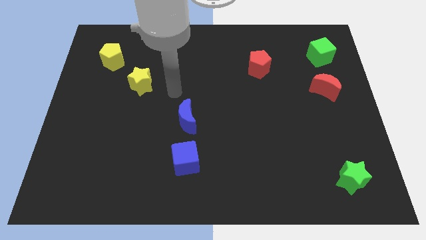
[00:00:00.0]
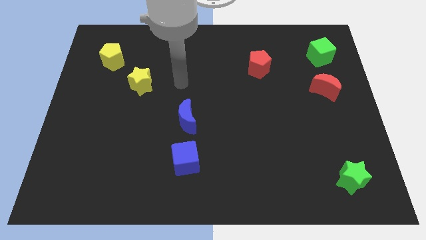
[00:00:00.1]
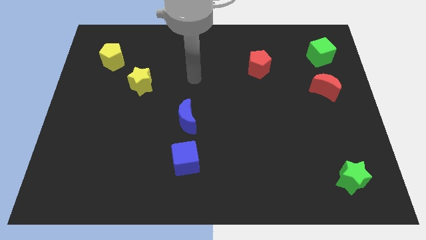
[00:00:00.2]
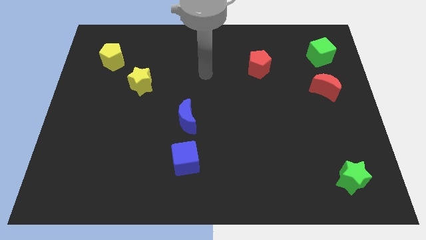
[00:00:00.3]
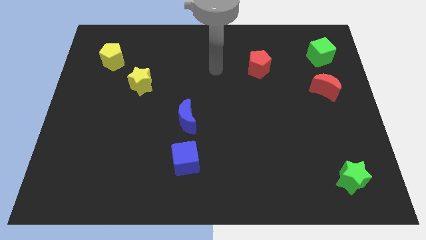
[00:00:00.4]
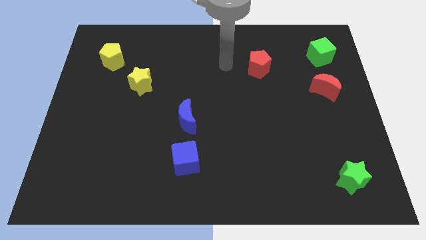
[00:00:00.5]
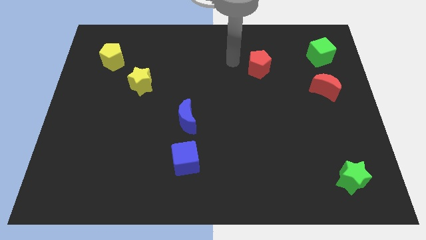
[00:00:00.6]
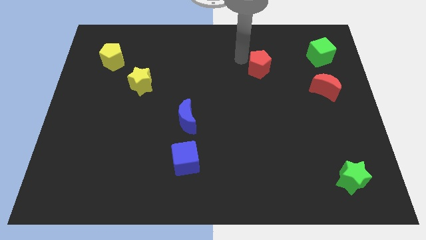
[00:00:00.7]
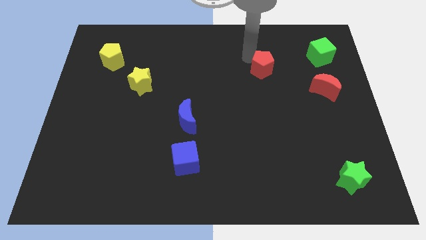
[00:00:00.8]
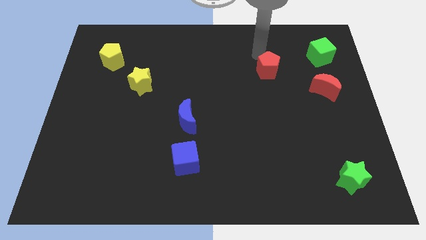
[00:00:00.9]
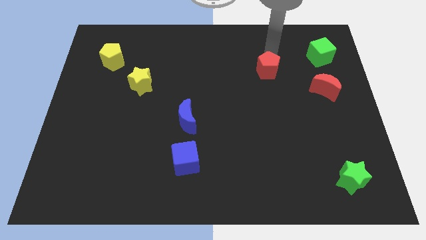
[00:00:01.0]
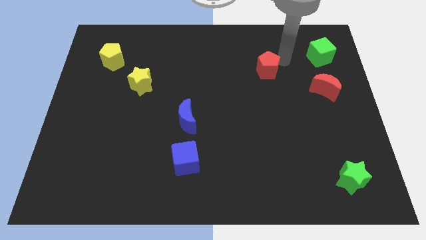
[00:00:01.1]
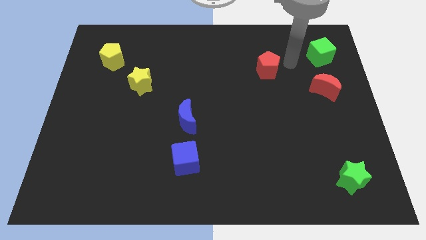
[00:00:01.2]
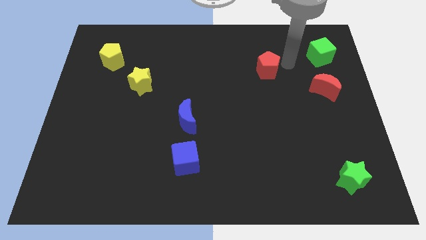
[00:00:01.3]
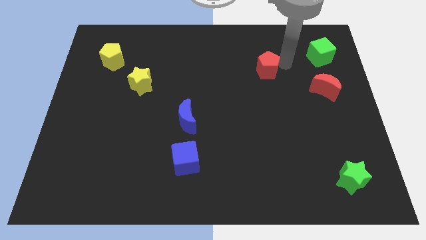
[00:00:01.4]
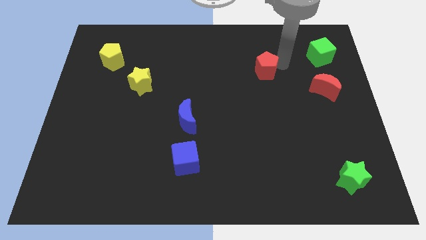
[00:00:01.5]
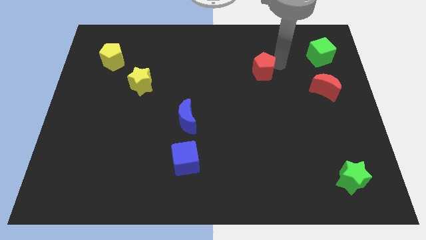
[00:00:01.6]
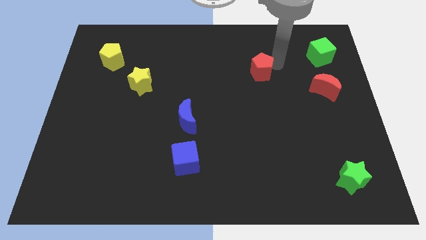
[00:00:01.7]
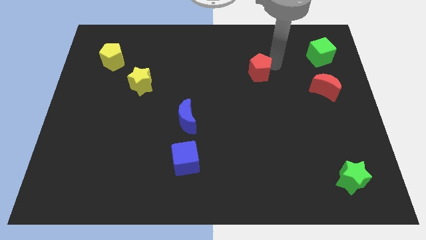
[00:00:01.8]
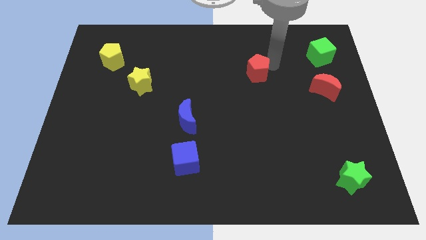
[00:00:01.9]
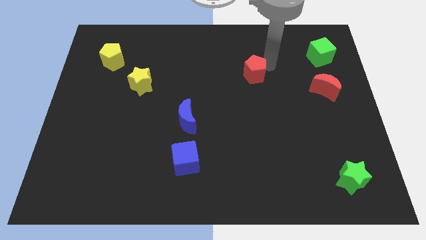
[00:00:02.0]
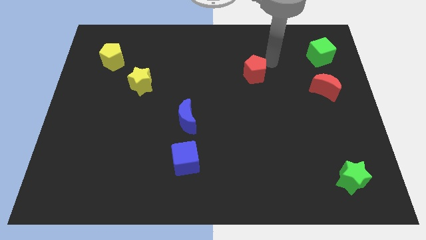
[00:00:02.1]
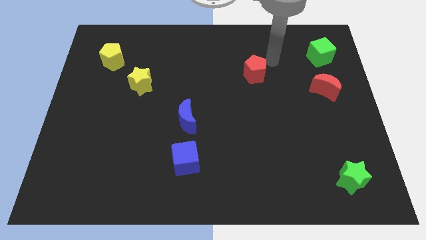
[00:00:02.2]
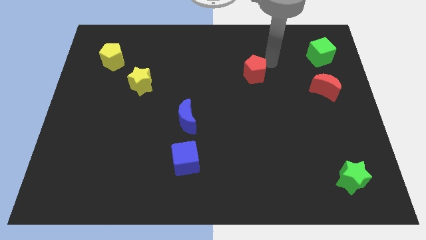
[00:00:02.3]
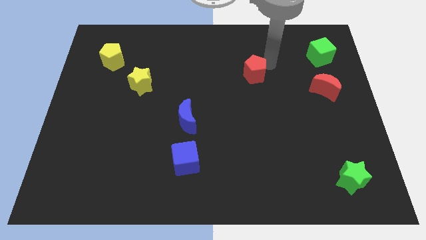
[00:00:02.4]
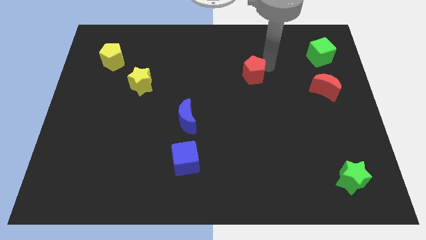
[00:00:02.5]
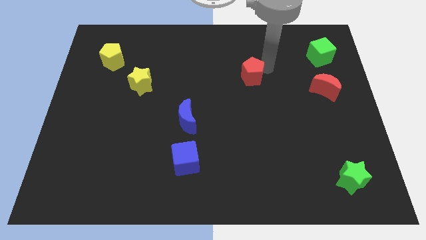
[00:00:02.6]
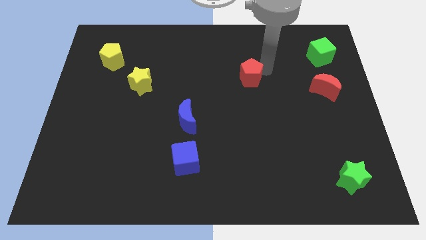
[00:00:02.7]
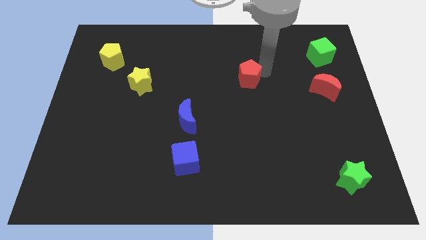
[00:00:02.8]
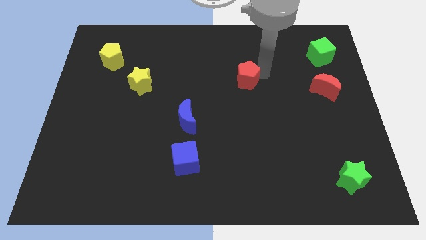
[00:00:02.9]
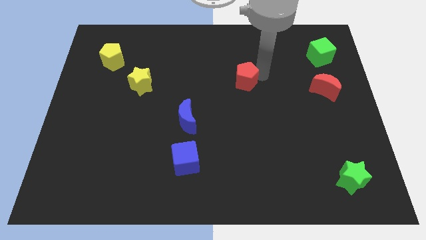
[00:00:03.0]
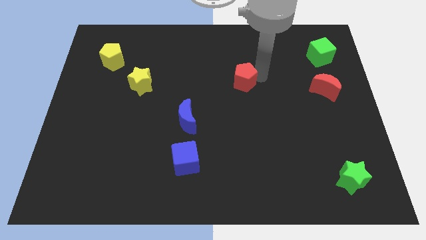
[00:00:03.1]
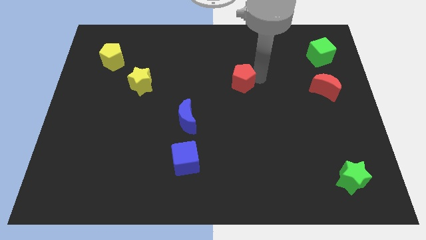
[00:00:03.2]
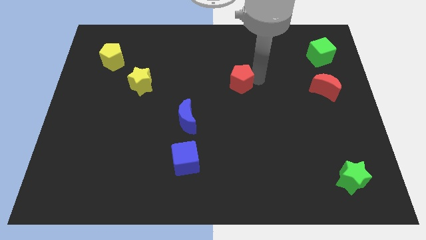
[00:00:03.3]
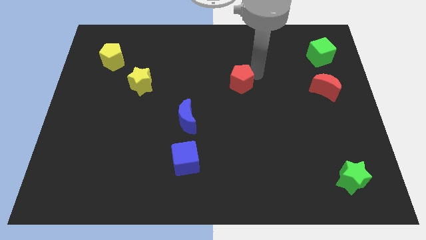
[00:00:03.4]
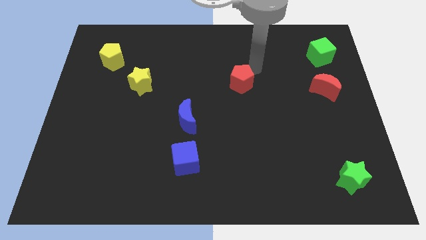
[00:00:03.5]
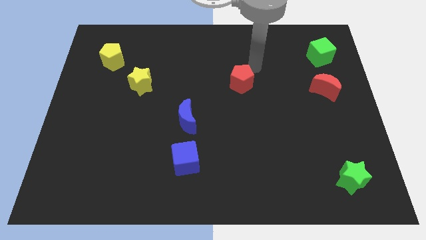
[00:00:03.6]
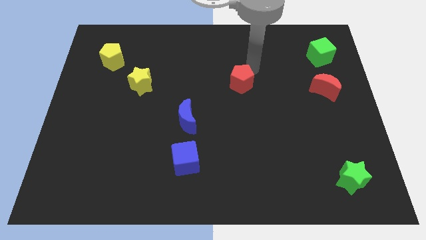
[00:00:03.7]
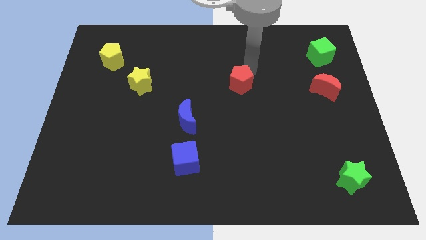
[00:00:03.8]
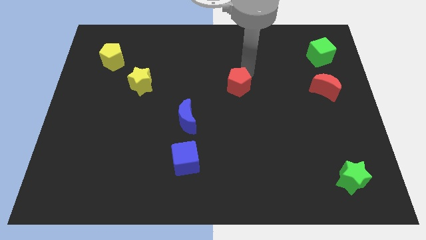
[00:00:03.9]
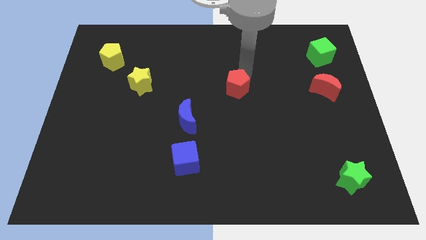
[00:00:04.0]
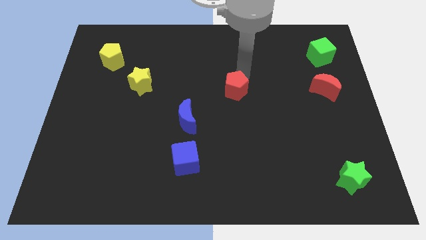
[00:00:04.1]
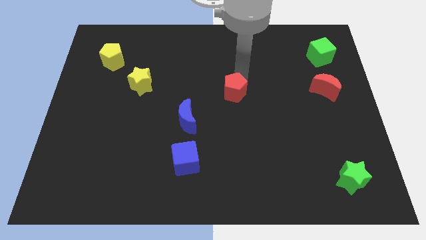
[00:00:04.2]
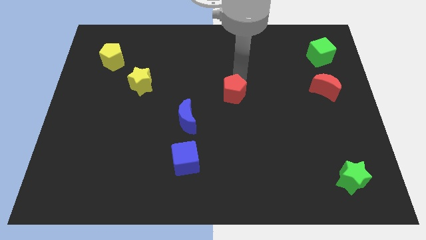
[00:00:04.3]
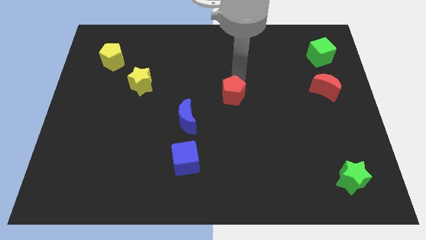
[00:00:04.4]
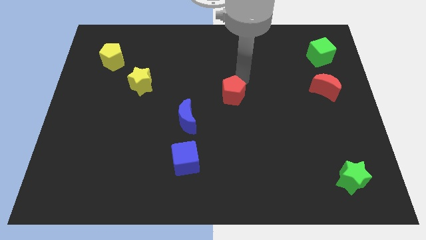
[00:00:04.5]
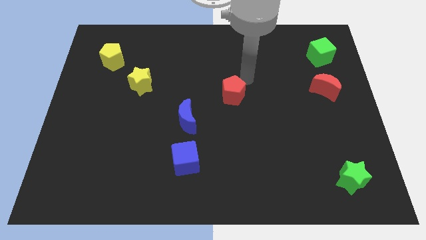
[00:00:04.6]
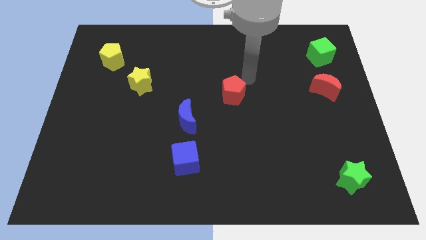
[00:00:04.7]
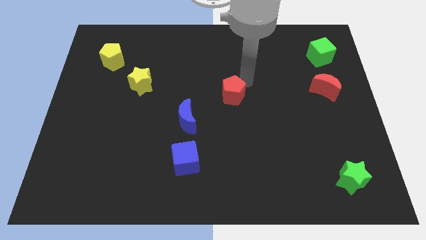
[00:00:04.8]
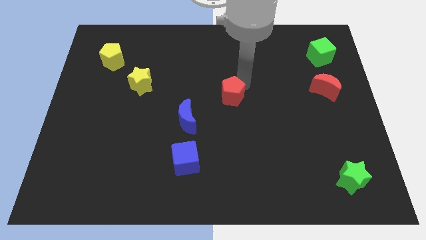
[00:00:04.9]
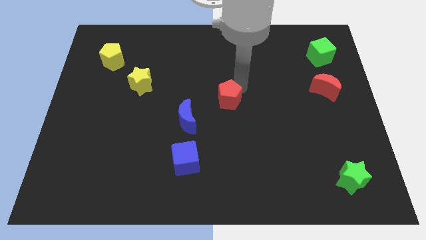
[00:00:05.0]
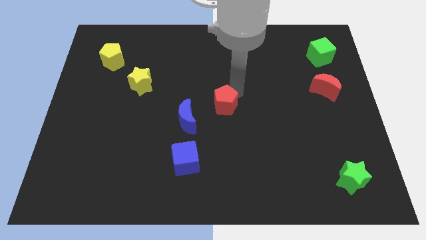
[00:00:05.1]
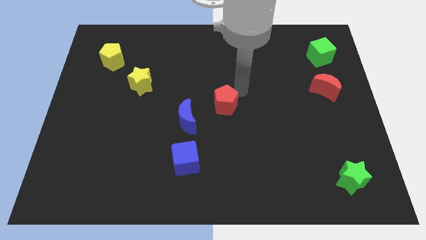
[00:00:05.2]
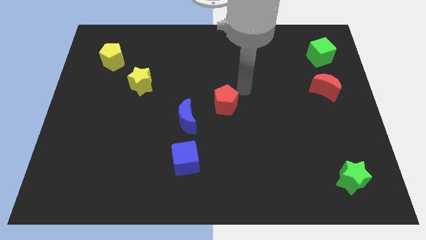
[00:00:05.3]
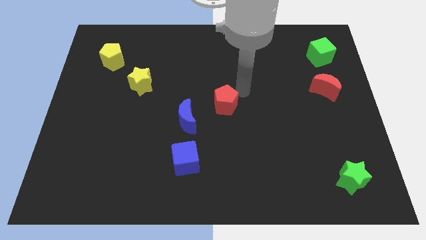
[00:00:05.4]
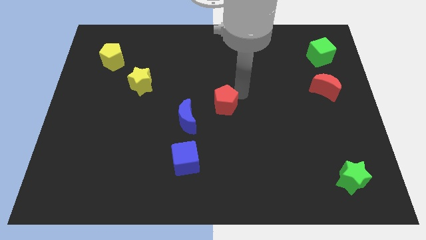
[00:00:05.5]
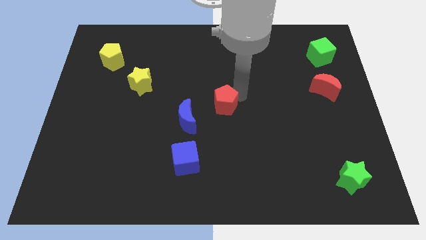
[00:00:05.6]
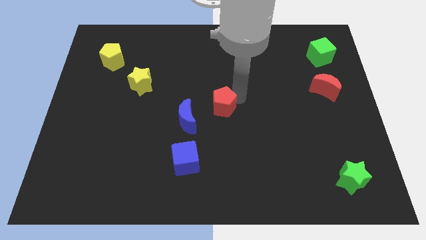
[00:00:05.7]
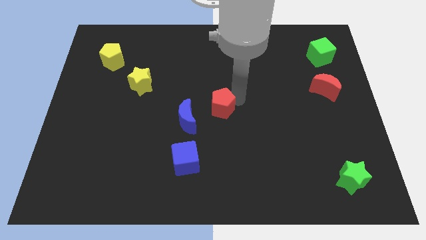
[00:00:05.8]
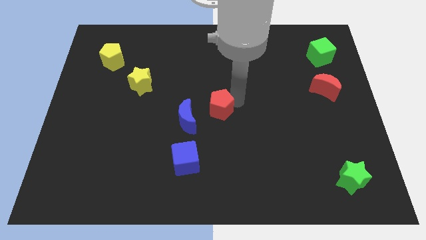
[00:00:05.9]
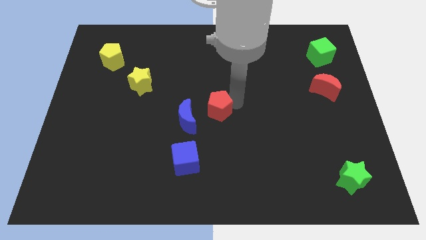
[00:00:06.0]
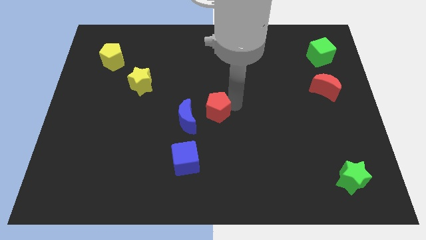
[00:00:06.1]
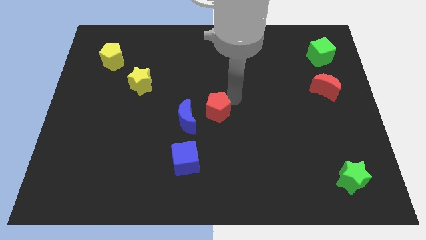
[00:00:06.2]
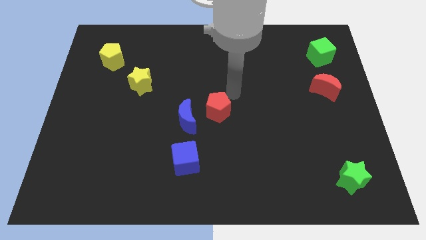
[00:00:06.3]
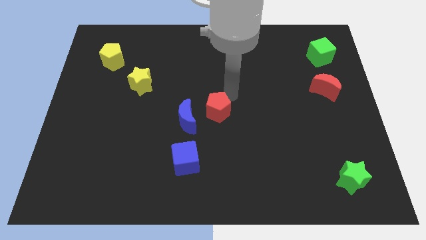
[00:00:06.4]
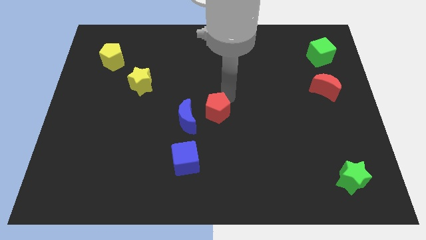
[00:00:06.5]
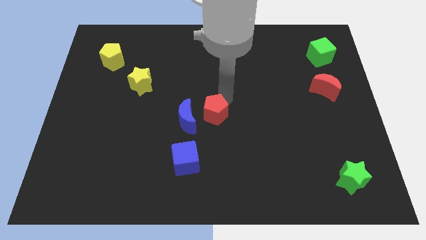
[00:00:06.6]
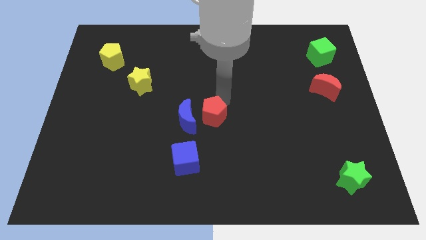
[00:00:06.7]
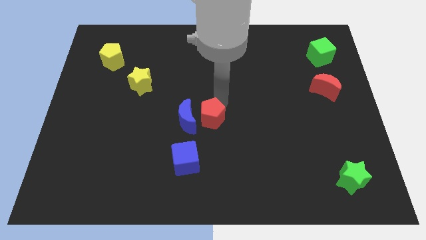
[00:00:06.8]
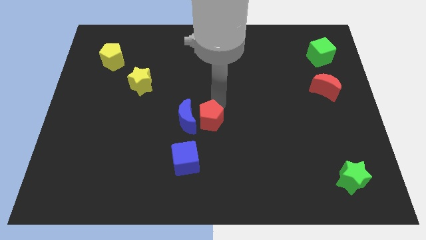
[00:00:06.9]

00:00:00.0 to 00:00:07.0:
push the red pentagon downwards and then left

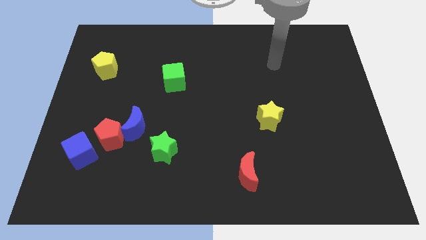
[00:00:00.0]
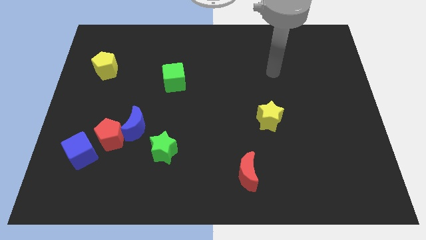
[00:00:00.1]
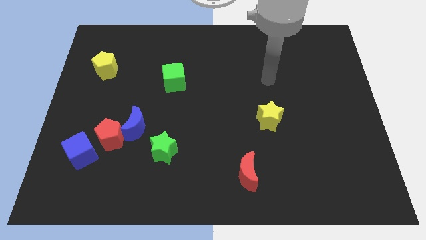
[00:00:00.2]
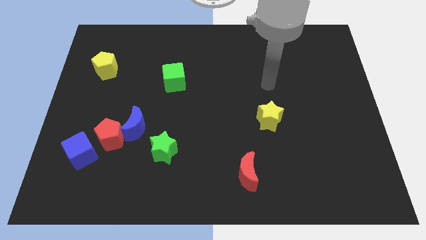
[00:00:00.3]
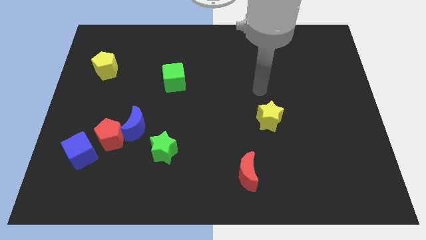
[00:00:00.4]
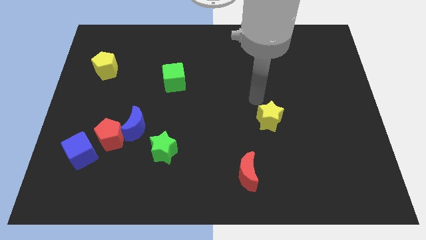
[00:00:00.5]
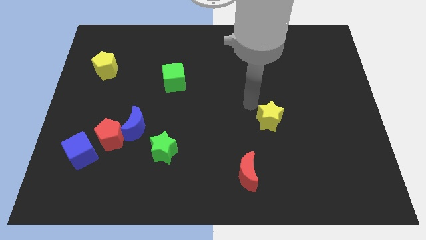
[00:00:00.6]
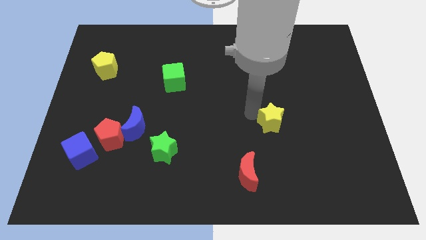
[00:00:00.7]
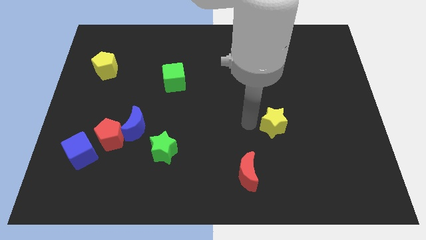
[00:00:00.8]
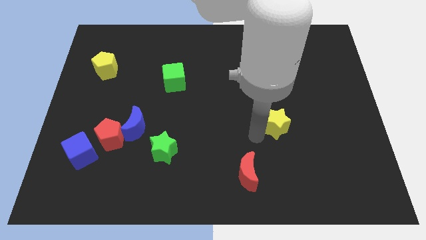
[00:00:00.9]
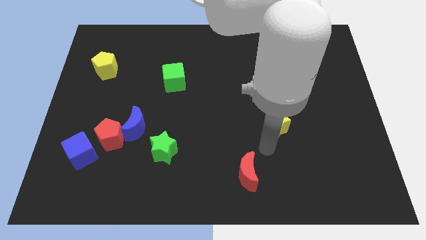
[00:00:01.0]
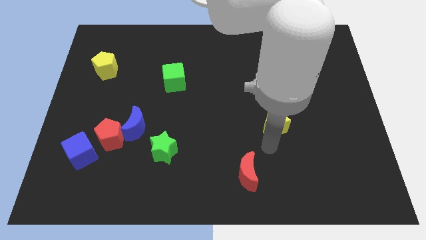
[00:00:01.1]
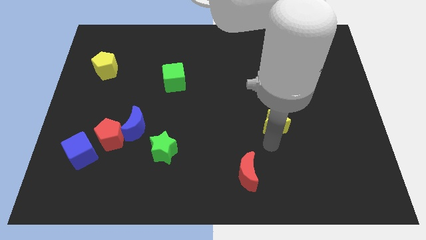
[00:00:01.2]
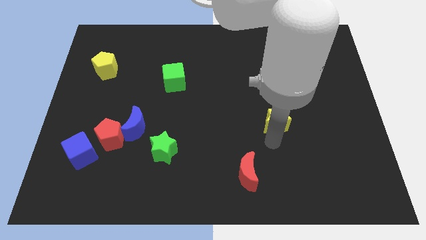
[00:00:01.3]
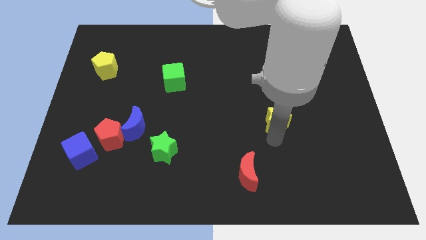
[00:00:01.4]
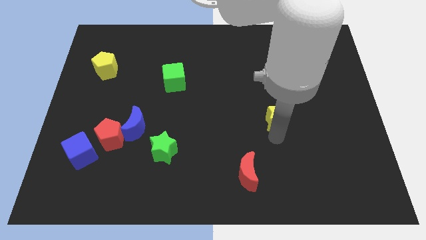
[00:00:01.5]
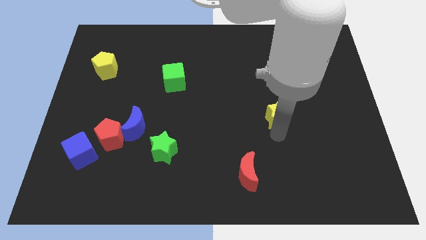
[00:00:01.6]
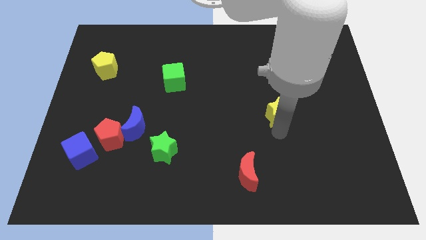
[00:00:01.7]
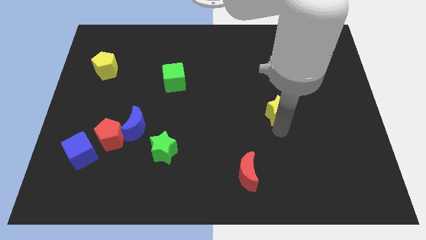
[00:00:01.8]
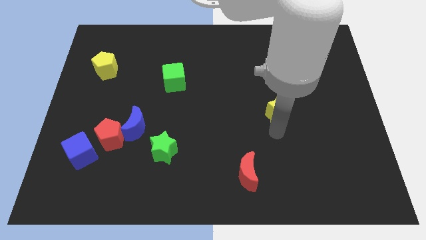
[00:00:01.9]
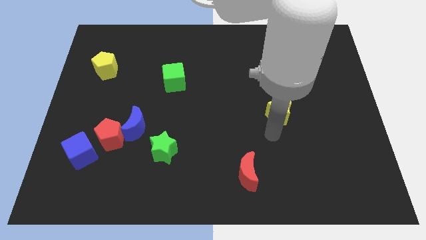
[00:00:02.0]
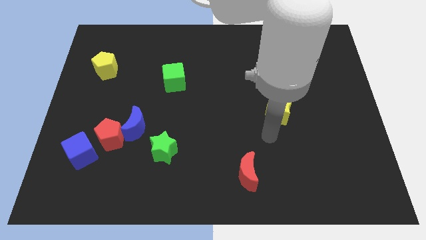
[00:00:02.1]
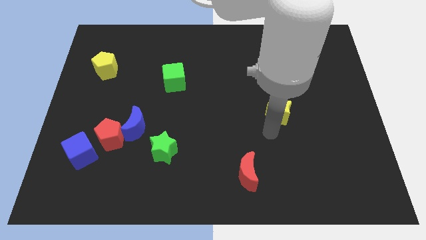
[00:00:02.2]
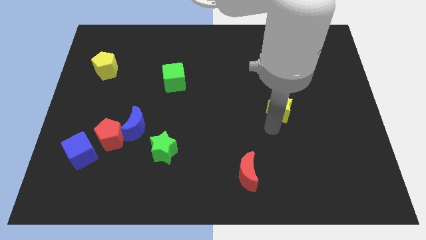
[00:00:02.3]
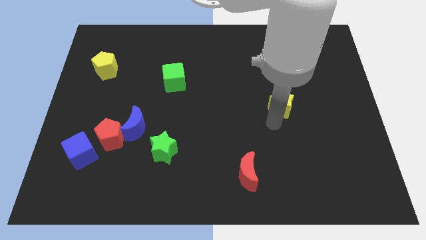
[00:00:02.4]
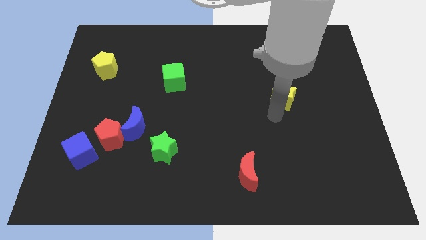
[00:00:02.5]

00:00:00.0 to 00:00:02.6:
slide the yellow star slightly upwards and right
